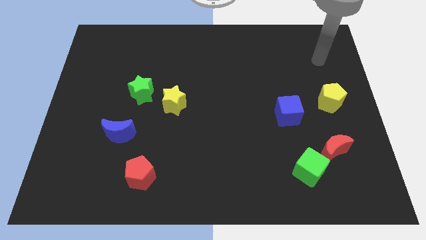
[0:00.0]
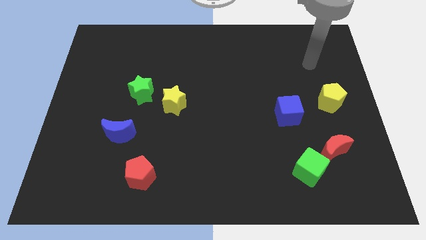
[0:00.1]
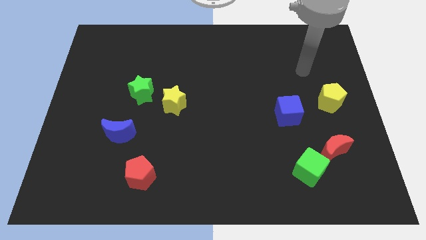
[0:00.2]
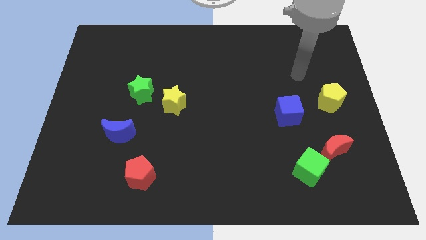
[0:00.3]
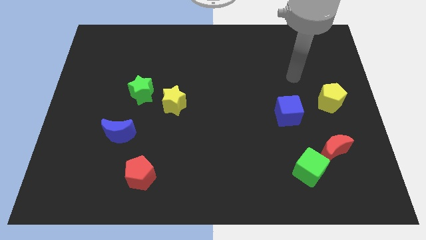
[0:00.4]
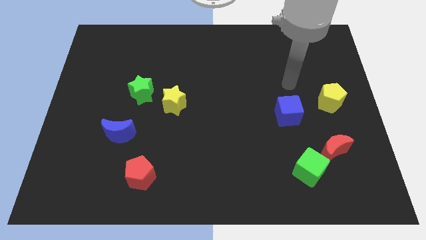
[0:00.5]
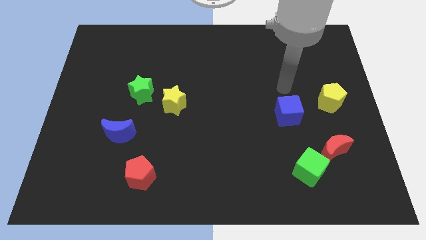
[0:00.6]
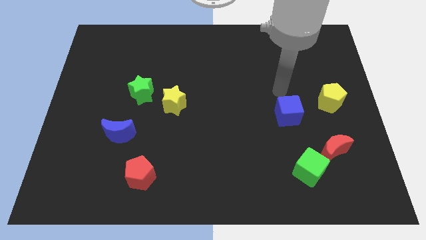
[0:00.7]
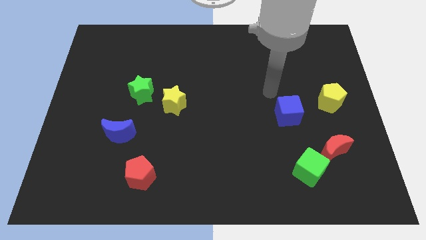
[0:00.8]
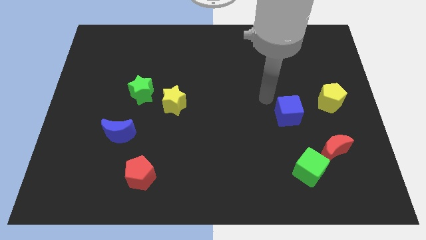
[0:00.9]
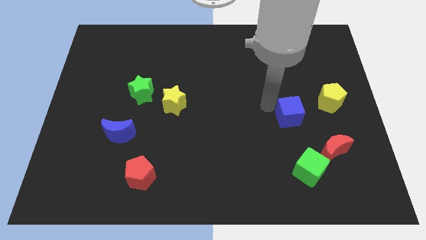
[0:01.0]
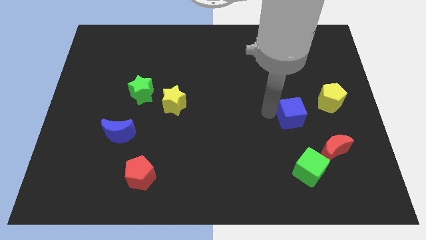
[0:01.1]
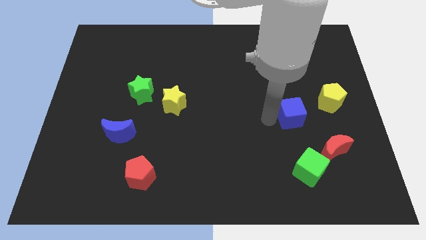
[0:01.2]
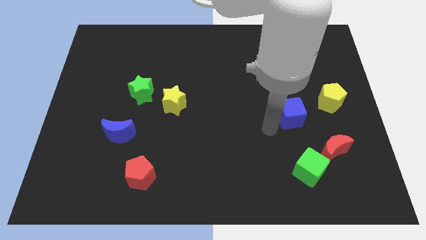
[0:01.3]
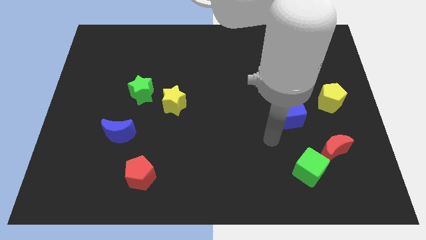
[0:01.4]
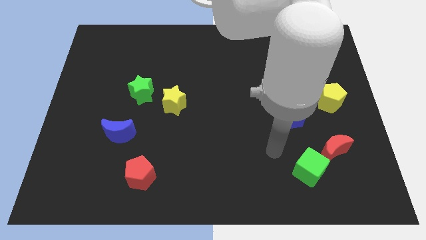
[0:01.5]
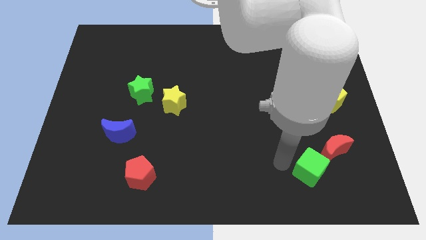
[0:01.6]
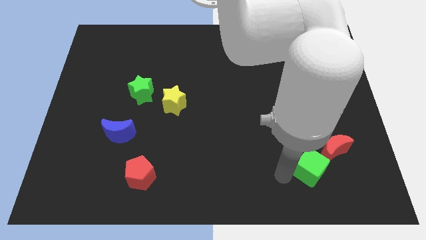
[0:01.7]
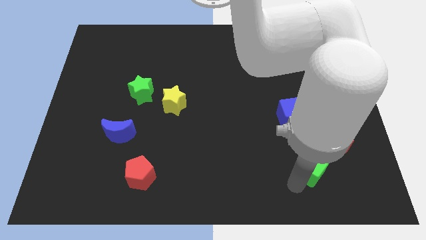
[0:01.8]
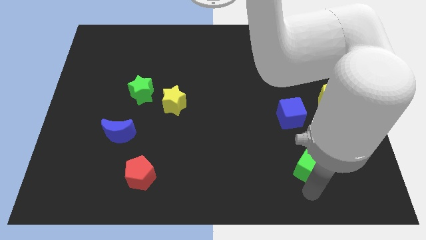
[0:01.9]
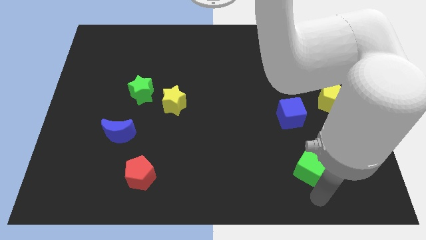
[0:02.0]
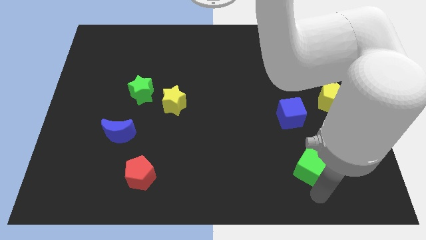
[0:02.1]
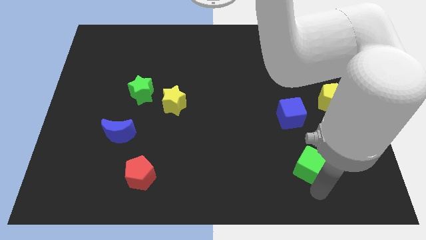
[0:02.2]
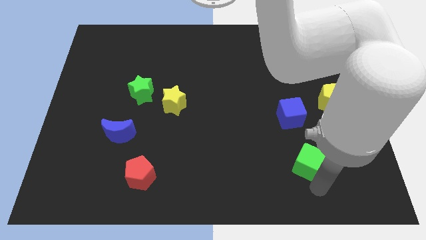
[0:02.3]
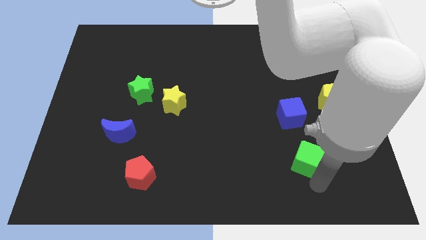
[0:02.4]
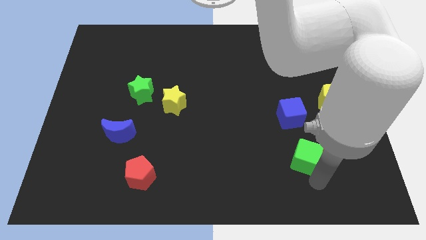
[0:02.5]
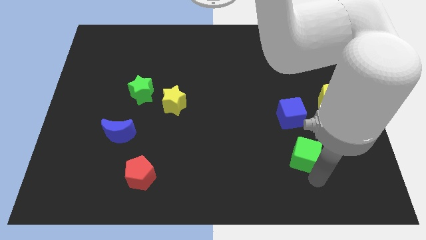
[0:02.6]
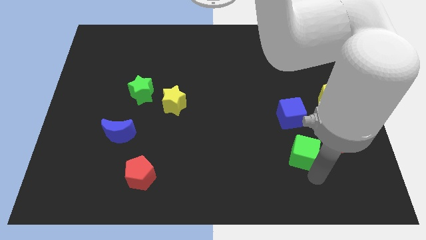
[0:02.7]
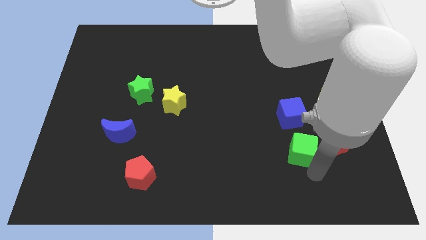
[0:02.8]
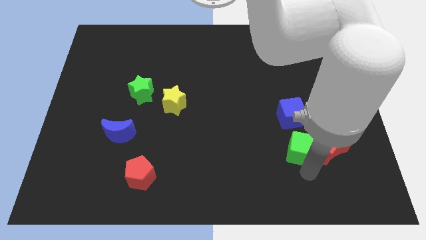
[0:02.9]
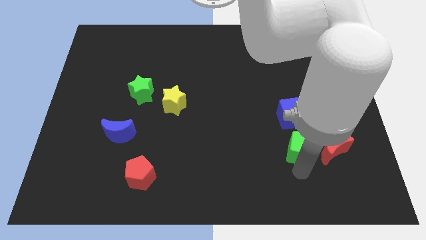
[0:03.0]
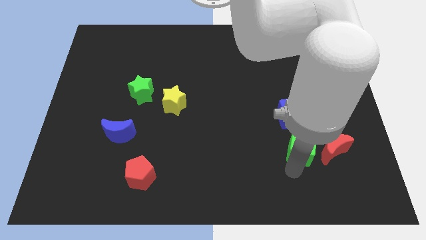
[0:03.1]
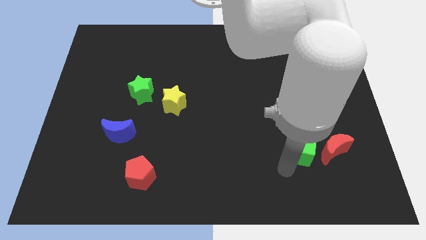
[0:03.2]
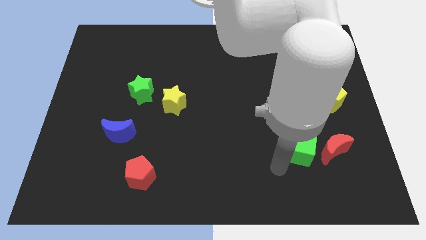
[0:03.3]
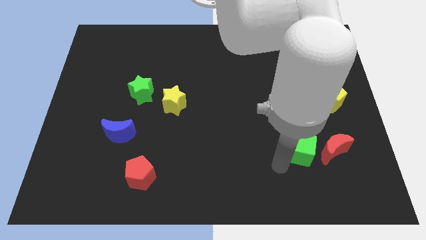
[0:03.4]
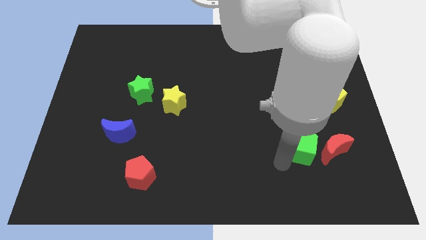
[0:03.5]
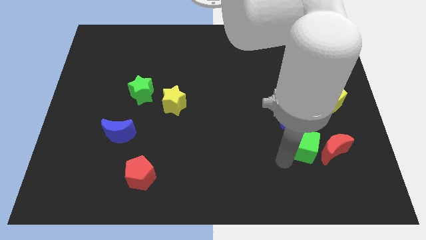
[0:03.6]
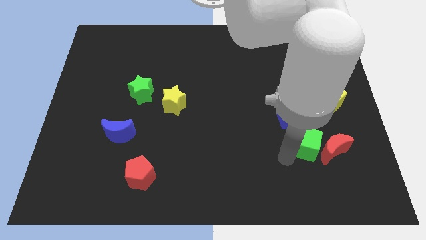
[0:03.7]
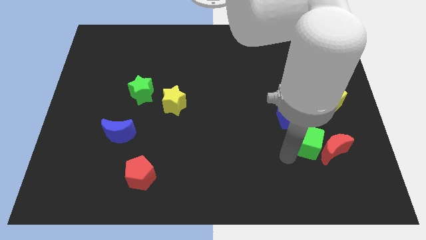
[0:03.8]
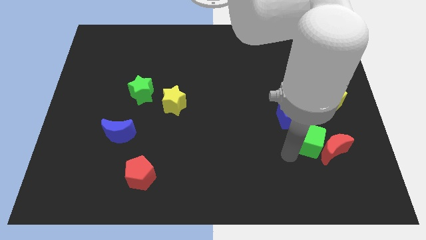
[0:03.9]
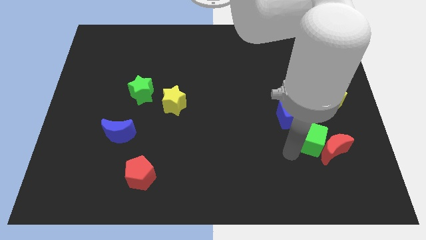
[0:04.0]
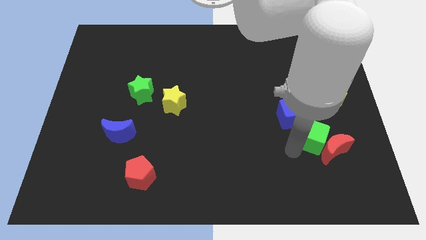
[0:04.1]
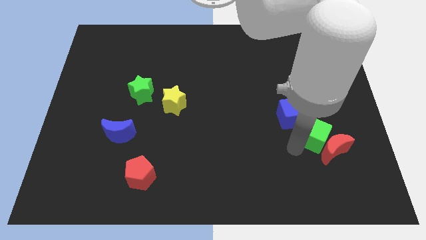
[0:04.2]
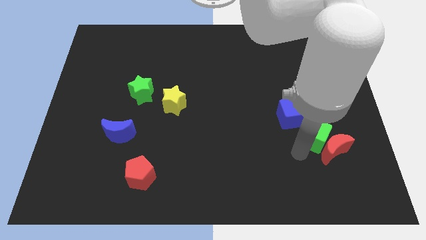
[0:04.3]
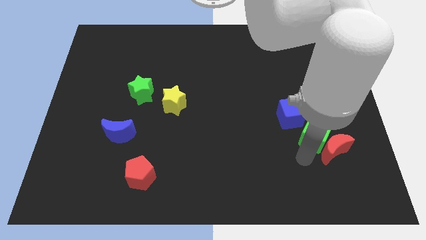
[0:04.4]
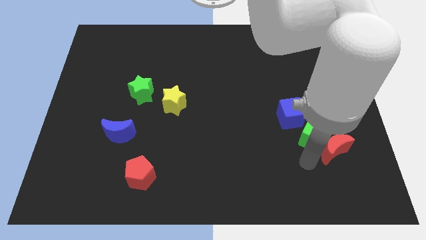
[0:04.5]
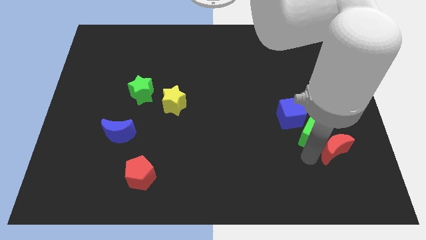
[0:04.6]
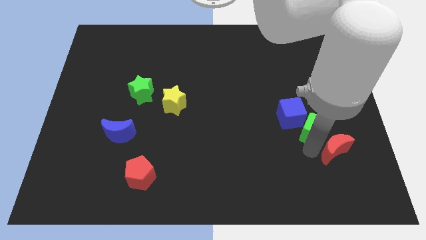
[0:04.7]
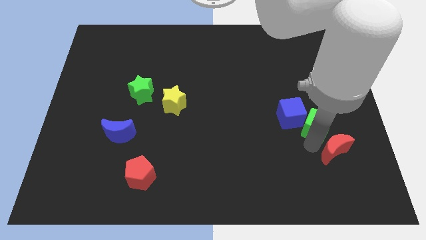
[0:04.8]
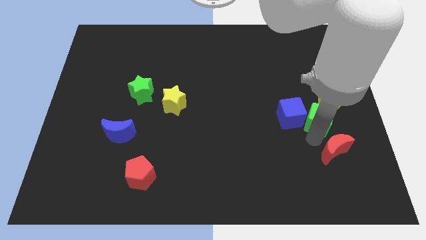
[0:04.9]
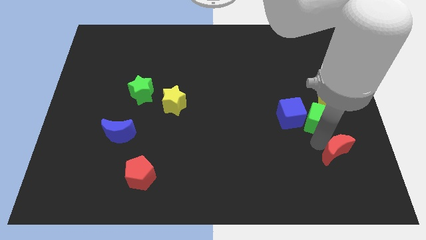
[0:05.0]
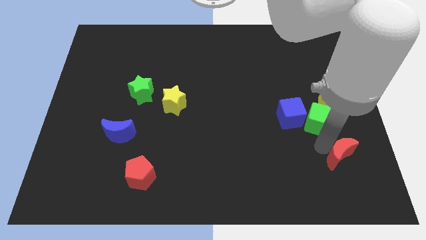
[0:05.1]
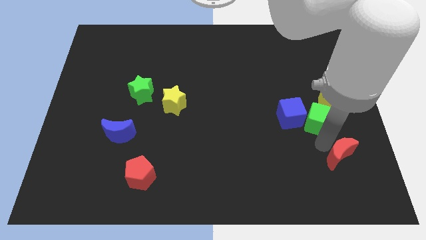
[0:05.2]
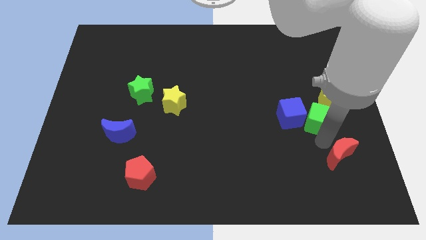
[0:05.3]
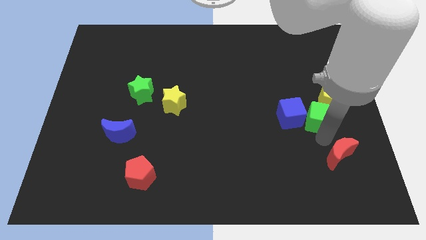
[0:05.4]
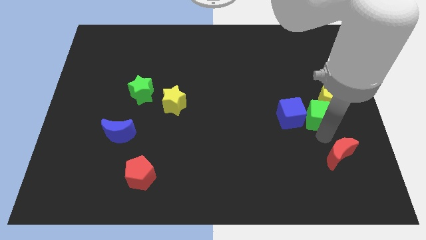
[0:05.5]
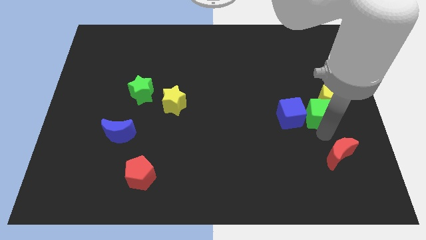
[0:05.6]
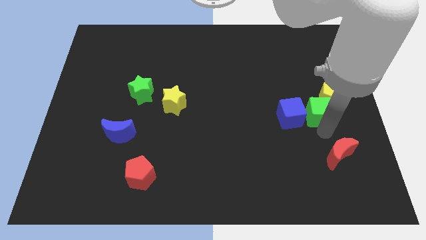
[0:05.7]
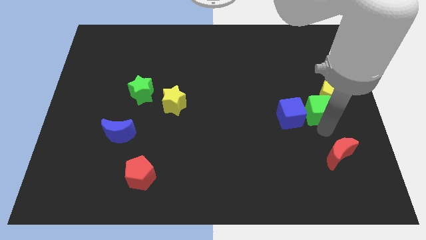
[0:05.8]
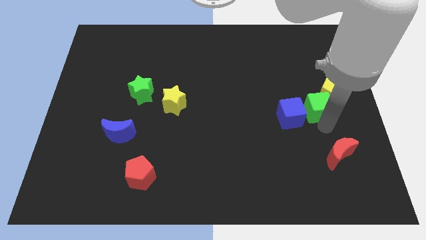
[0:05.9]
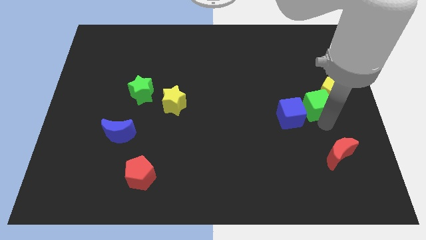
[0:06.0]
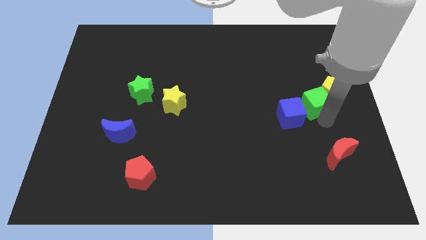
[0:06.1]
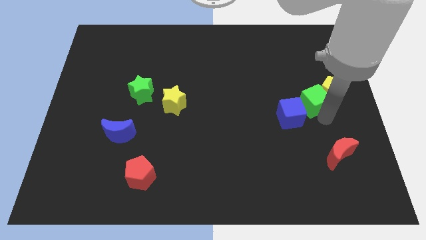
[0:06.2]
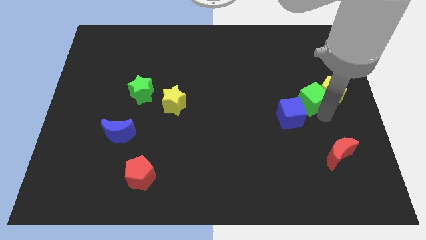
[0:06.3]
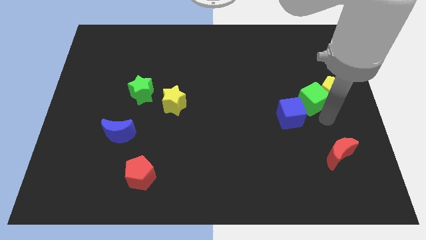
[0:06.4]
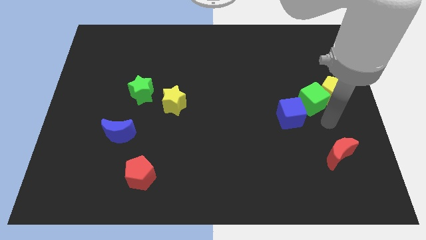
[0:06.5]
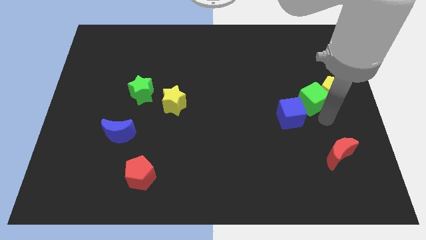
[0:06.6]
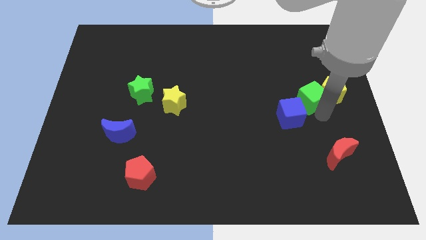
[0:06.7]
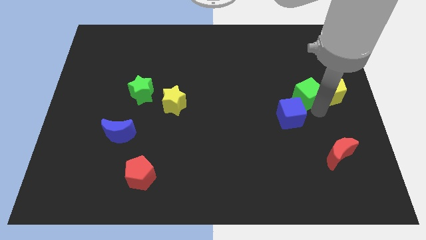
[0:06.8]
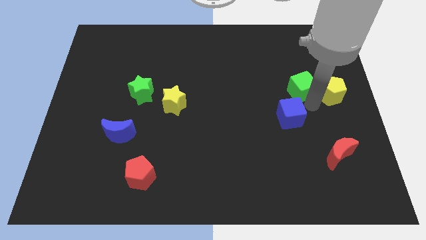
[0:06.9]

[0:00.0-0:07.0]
push the green cube up

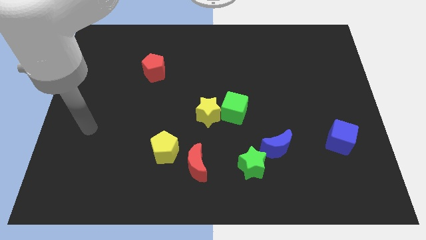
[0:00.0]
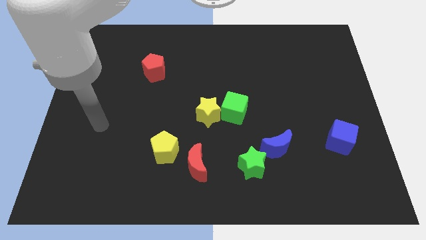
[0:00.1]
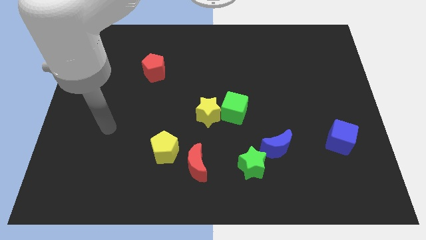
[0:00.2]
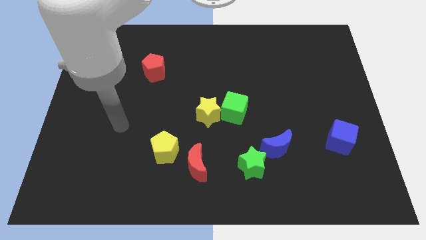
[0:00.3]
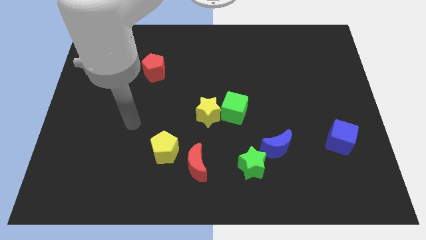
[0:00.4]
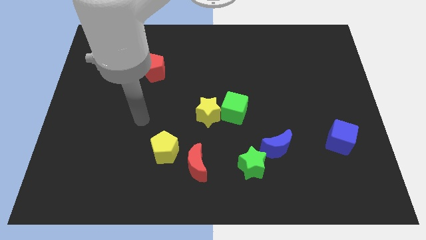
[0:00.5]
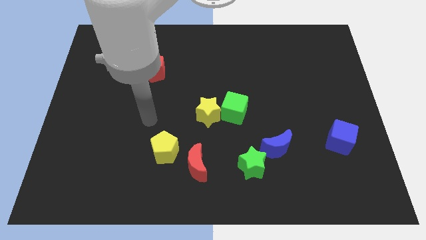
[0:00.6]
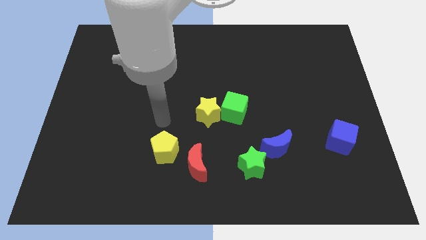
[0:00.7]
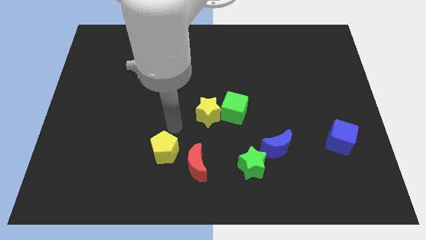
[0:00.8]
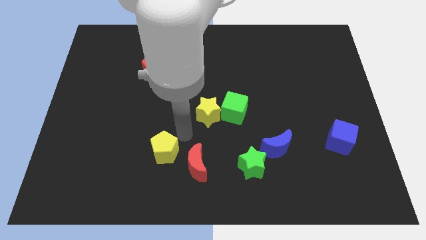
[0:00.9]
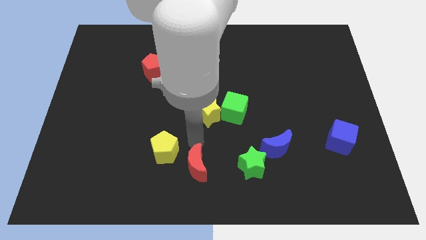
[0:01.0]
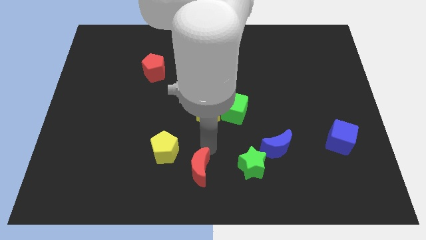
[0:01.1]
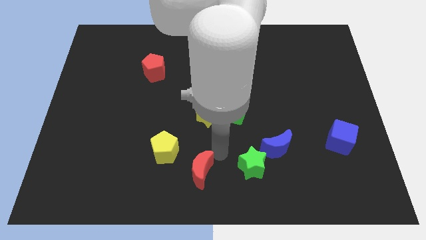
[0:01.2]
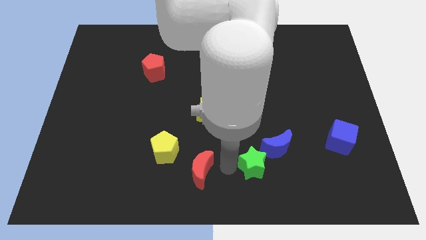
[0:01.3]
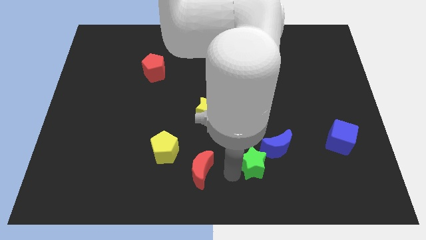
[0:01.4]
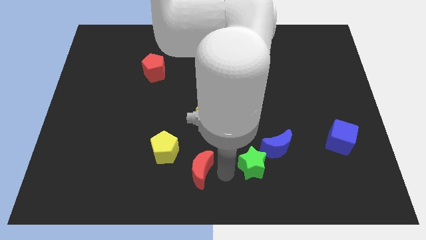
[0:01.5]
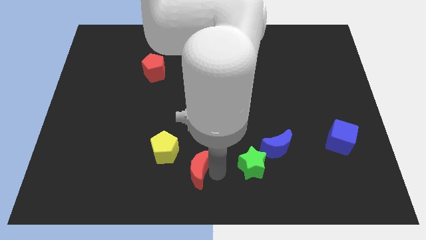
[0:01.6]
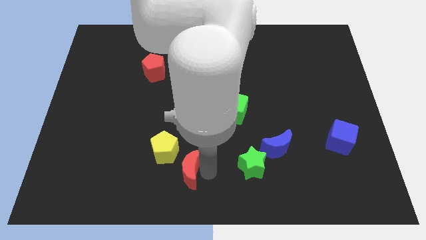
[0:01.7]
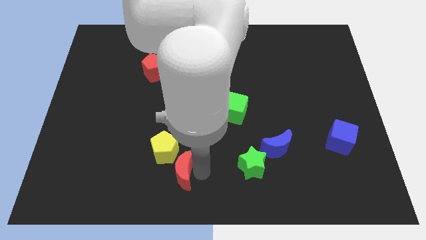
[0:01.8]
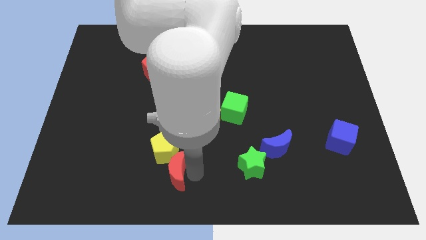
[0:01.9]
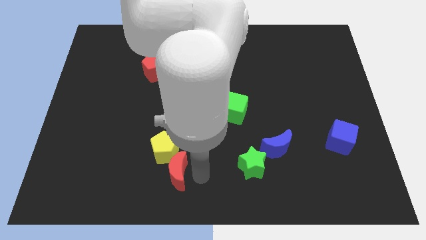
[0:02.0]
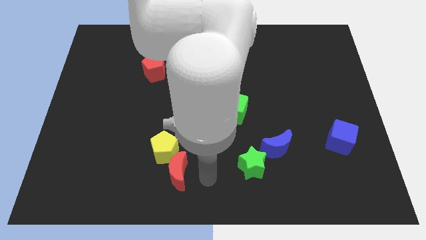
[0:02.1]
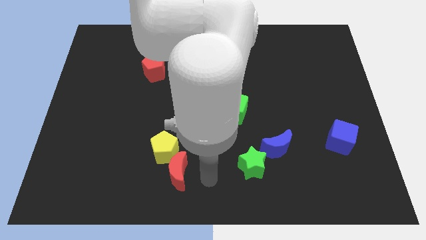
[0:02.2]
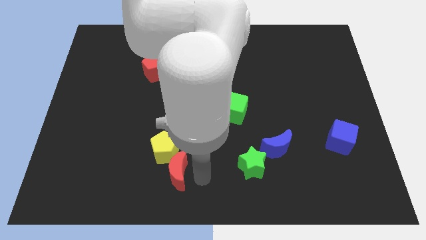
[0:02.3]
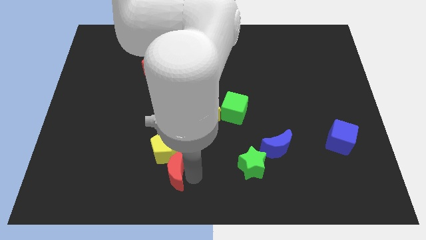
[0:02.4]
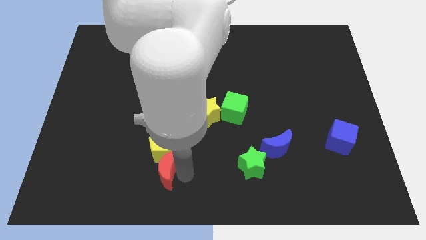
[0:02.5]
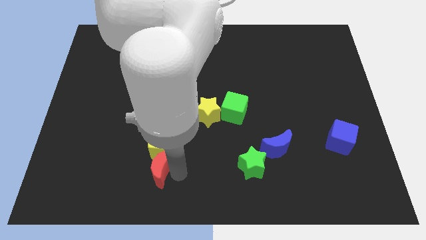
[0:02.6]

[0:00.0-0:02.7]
slide the red moon left a bit
